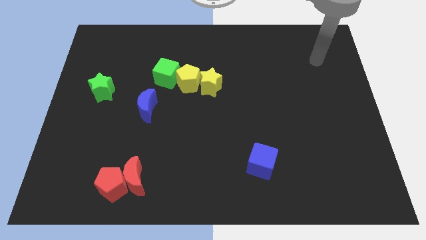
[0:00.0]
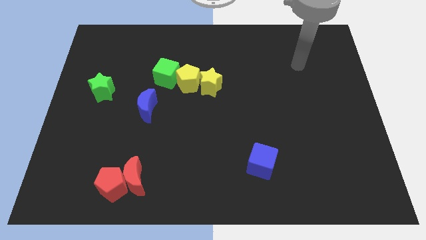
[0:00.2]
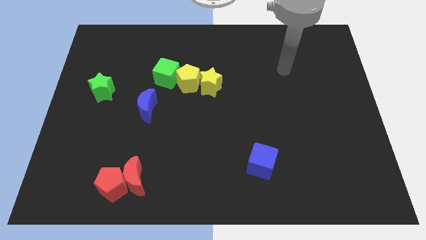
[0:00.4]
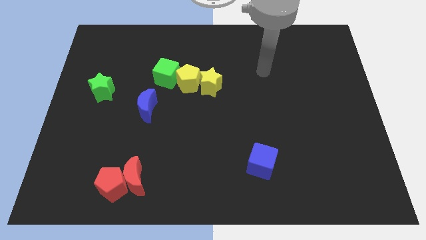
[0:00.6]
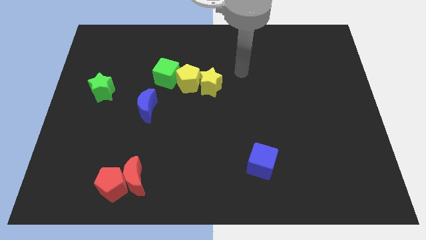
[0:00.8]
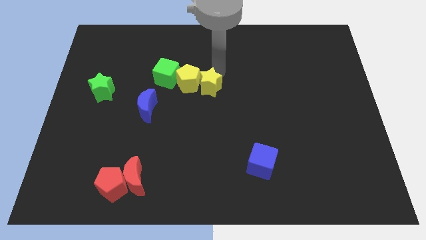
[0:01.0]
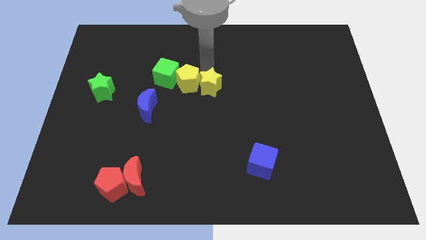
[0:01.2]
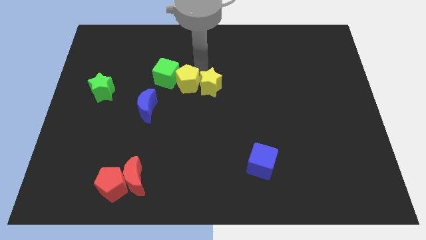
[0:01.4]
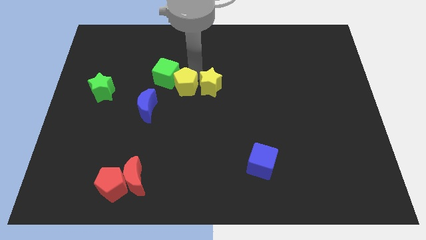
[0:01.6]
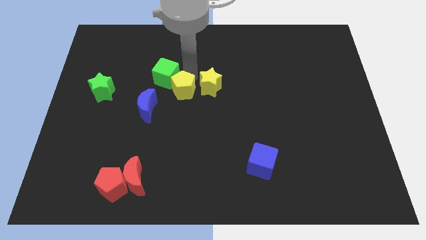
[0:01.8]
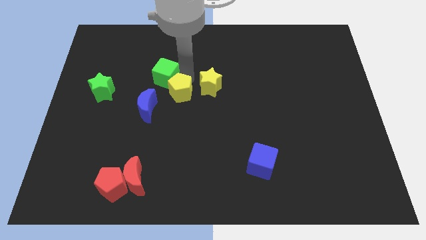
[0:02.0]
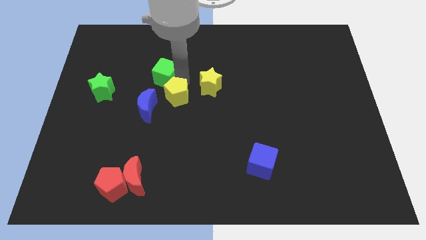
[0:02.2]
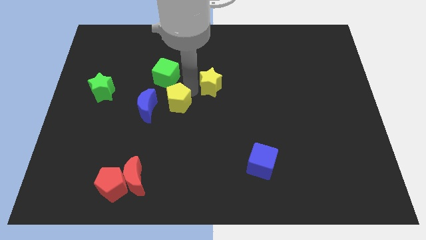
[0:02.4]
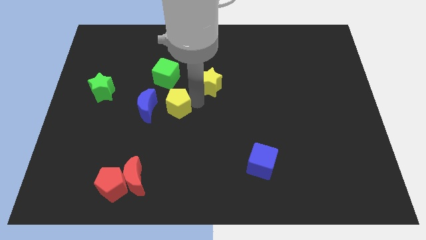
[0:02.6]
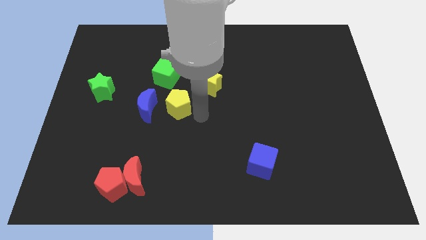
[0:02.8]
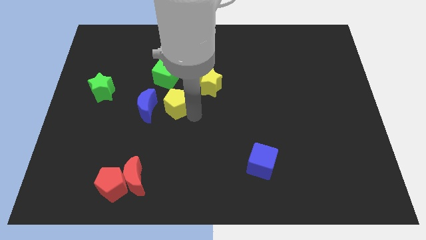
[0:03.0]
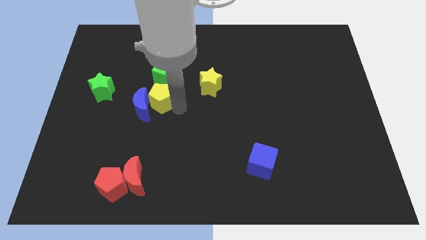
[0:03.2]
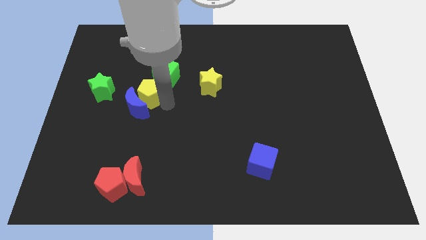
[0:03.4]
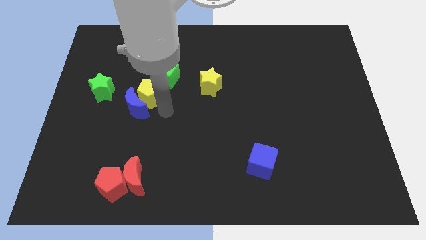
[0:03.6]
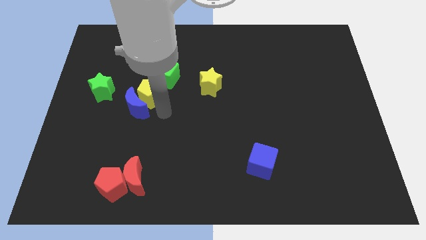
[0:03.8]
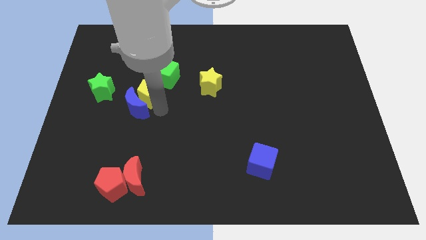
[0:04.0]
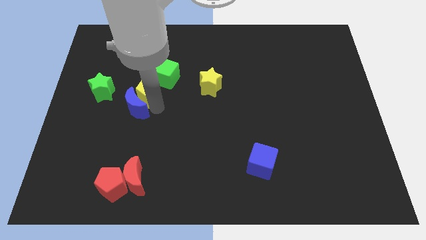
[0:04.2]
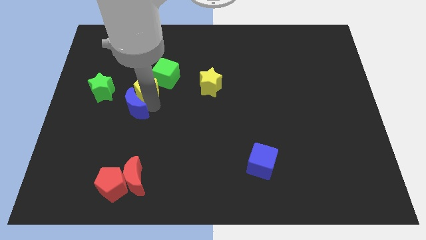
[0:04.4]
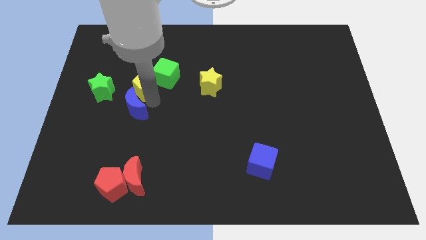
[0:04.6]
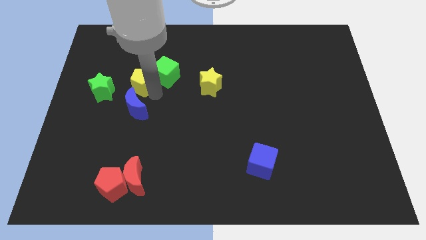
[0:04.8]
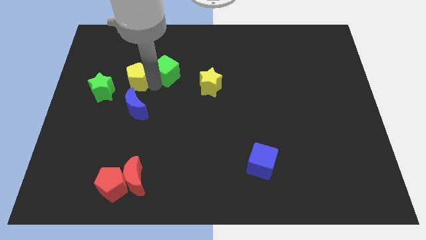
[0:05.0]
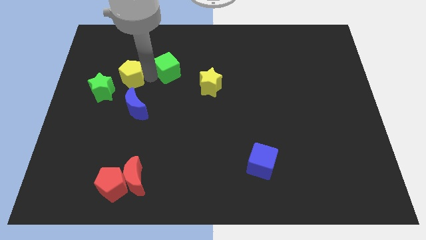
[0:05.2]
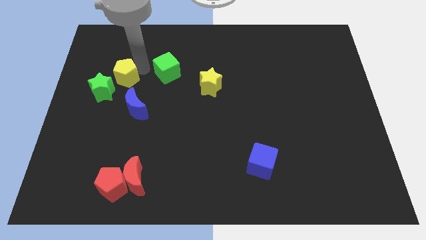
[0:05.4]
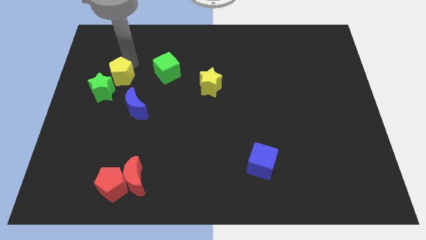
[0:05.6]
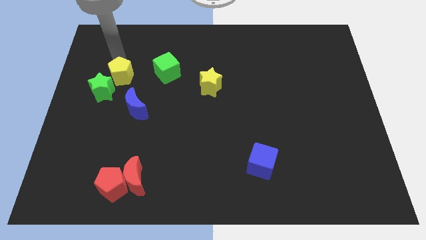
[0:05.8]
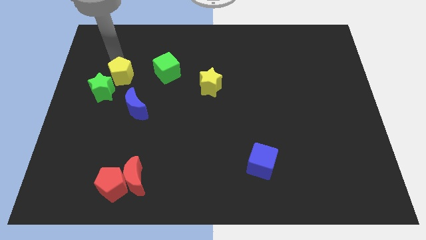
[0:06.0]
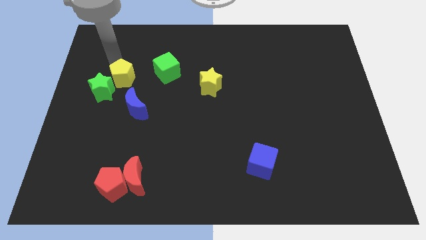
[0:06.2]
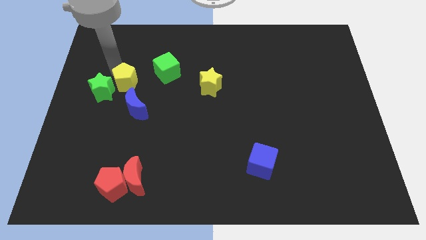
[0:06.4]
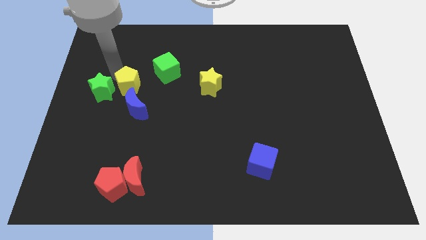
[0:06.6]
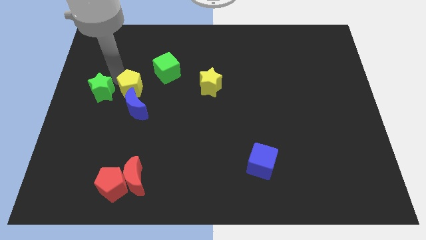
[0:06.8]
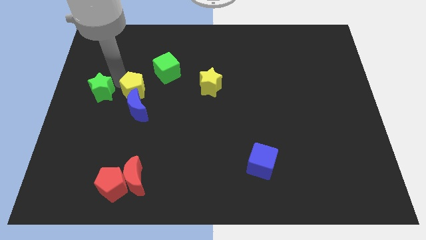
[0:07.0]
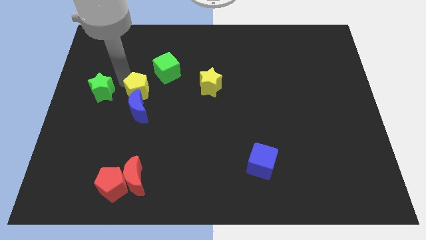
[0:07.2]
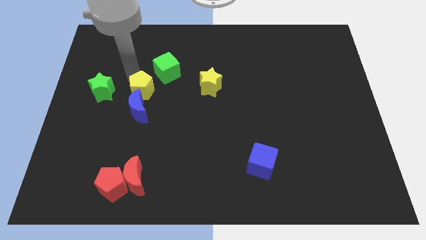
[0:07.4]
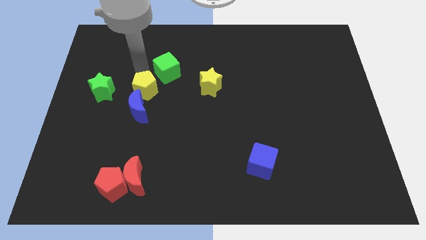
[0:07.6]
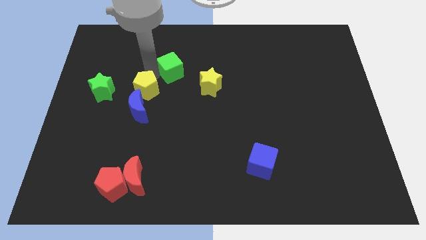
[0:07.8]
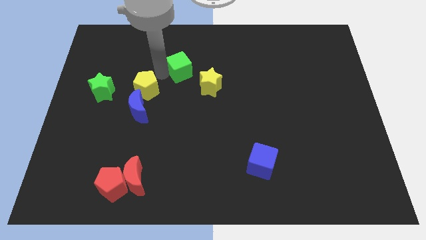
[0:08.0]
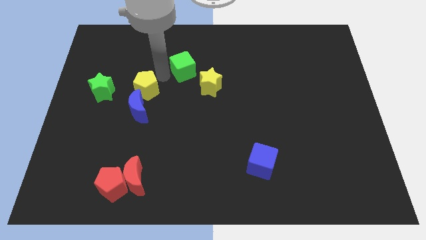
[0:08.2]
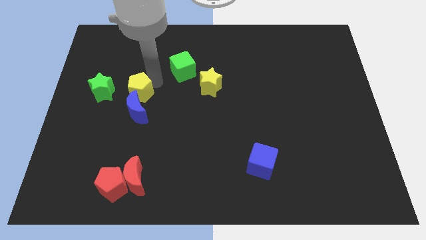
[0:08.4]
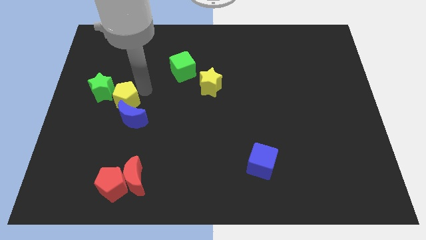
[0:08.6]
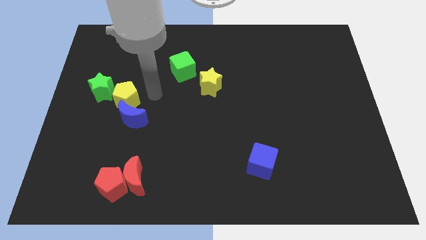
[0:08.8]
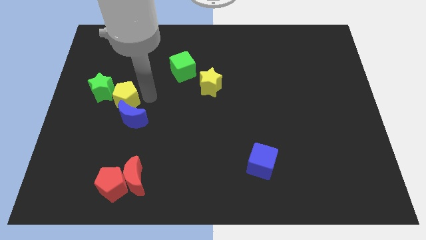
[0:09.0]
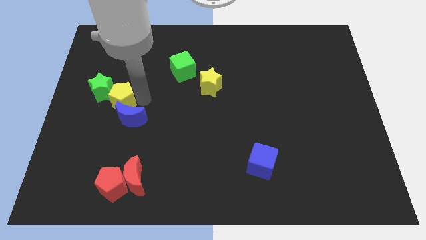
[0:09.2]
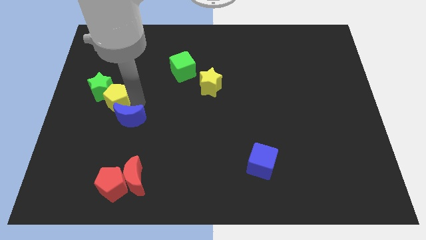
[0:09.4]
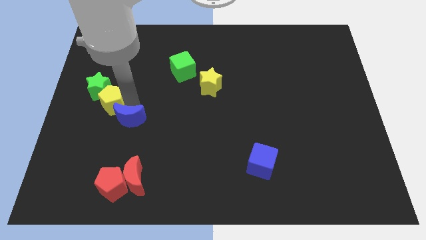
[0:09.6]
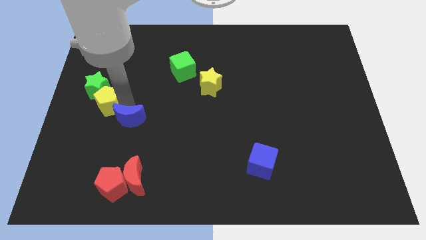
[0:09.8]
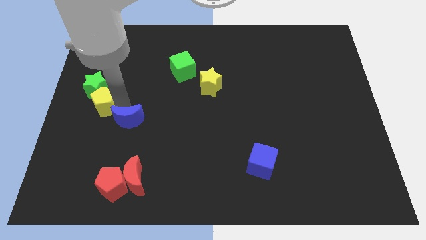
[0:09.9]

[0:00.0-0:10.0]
put the yellow pentagon to the left side

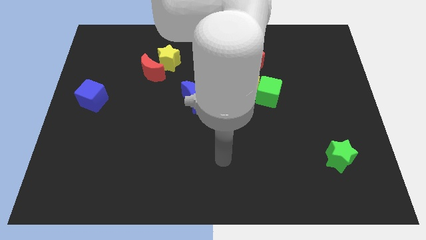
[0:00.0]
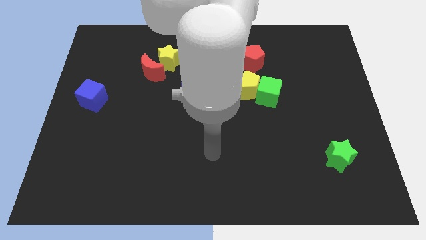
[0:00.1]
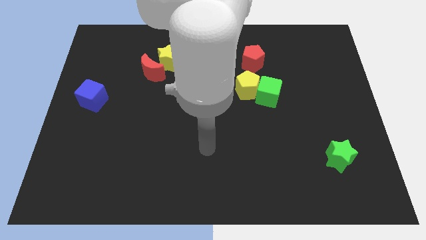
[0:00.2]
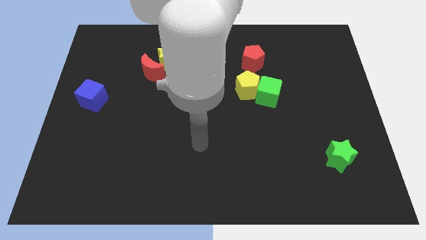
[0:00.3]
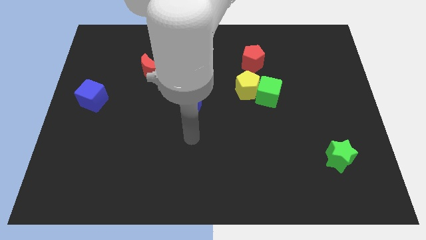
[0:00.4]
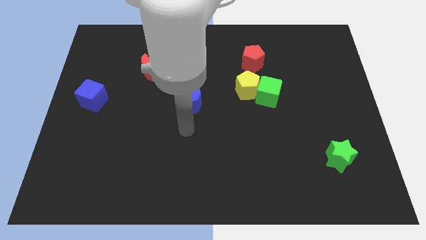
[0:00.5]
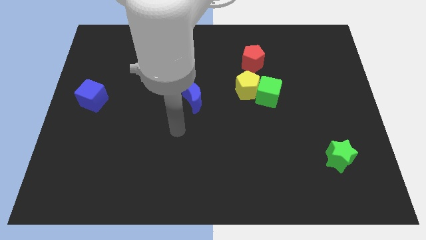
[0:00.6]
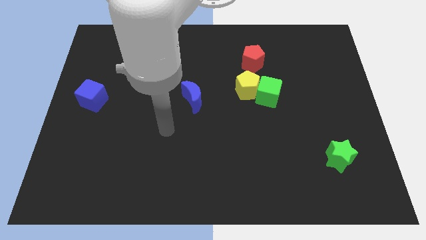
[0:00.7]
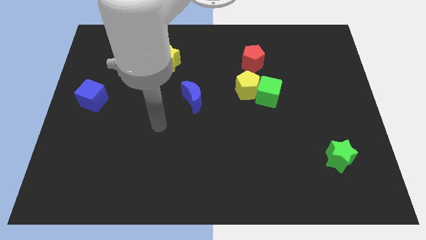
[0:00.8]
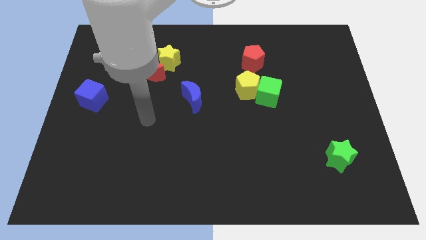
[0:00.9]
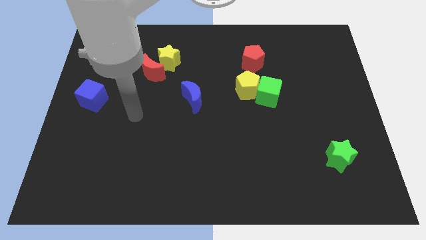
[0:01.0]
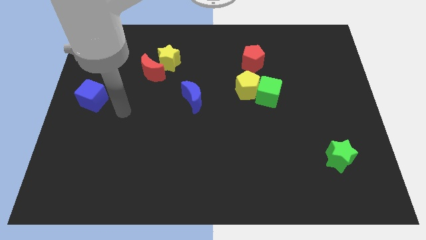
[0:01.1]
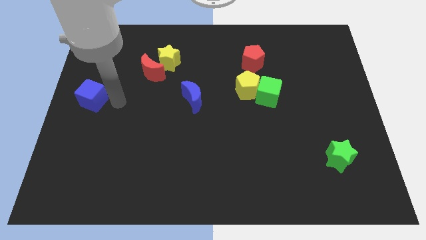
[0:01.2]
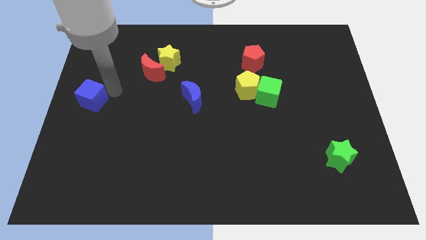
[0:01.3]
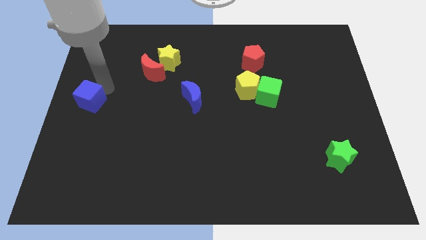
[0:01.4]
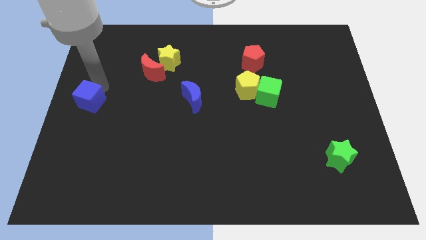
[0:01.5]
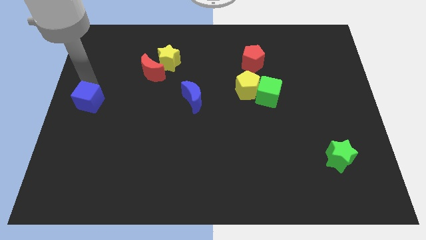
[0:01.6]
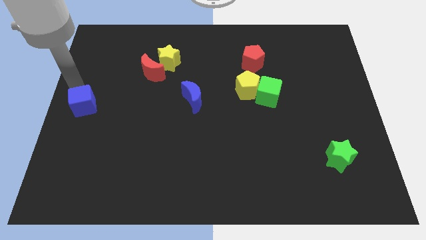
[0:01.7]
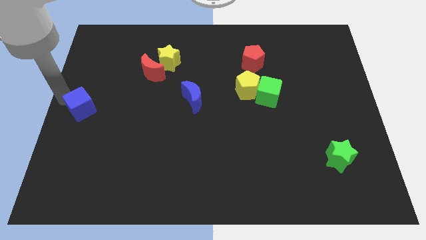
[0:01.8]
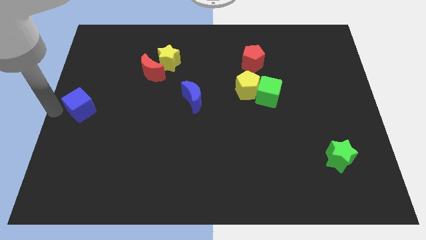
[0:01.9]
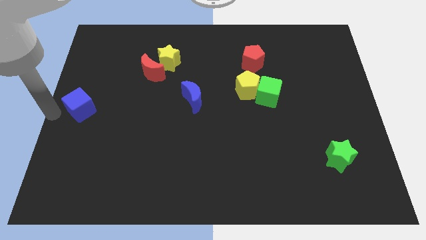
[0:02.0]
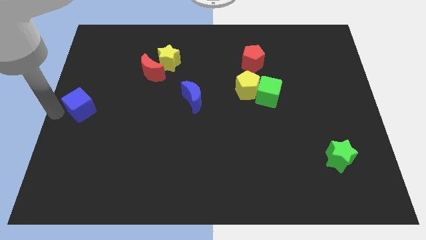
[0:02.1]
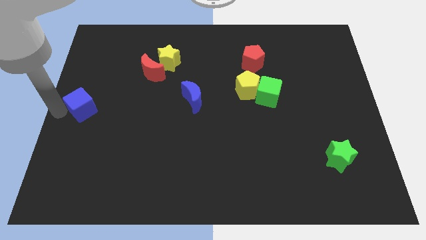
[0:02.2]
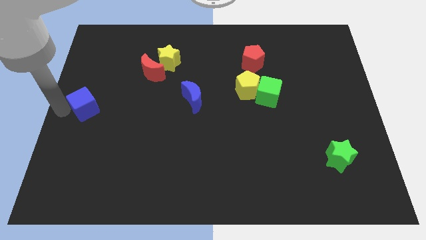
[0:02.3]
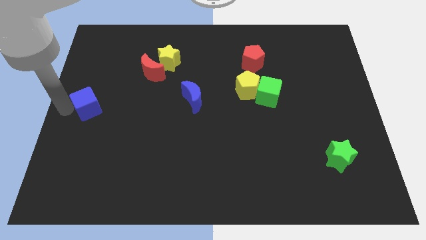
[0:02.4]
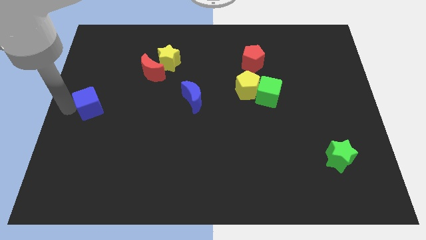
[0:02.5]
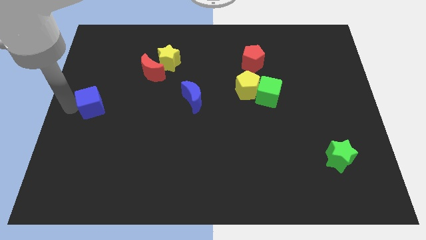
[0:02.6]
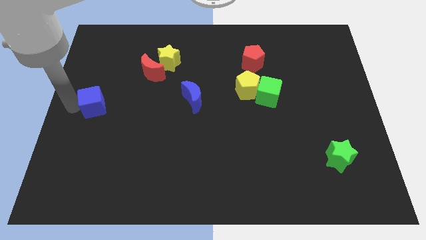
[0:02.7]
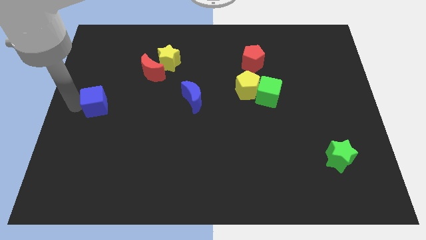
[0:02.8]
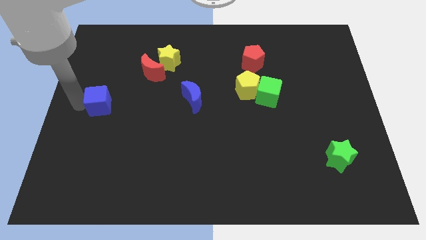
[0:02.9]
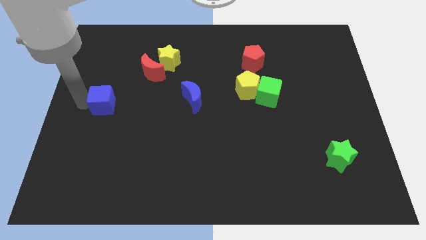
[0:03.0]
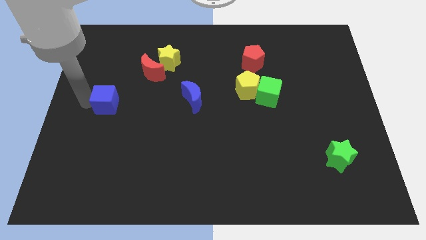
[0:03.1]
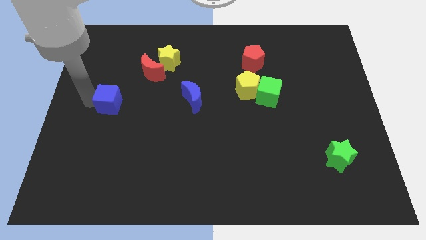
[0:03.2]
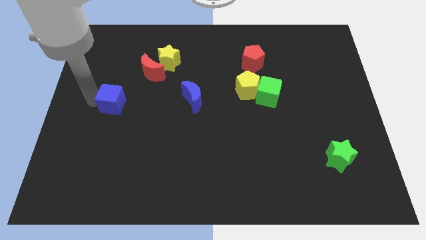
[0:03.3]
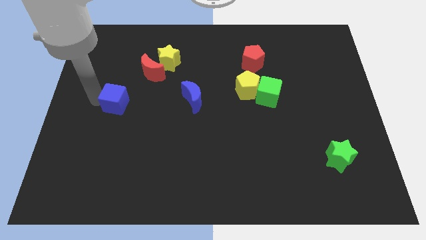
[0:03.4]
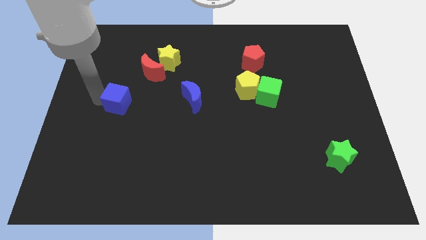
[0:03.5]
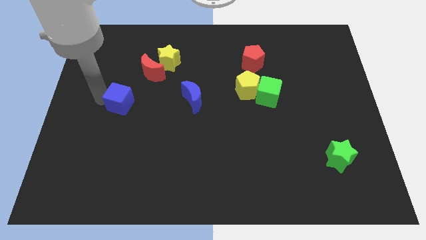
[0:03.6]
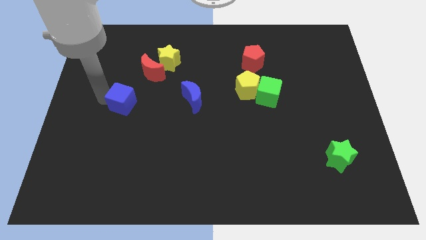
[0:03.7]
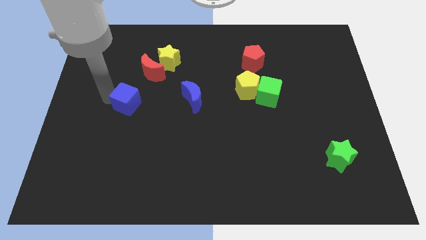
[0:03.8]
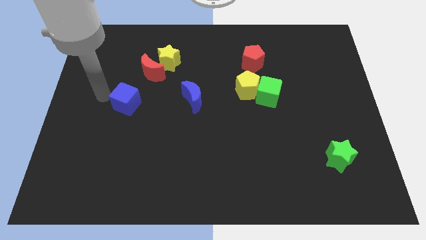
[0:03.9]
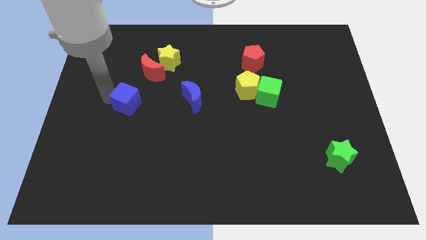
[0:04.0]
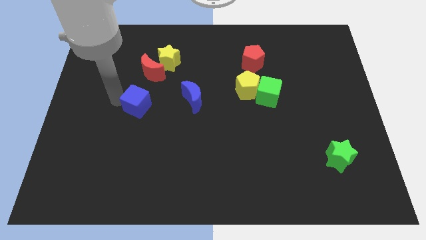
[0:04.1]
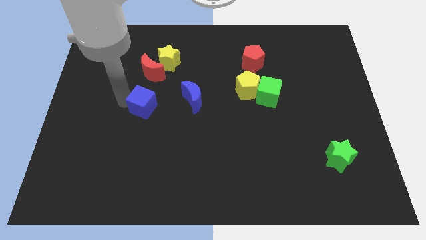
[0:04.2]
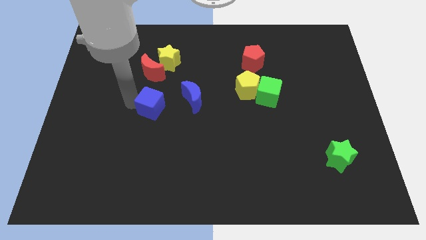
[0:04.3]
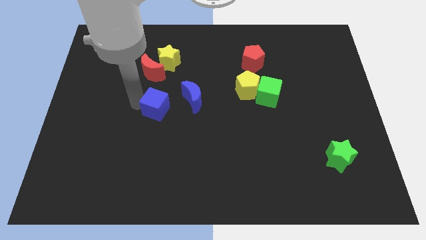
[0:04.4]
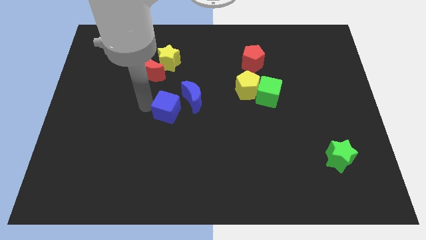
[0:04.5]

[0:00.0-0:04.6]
put the blue cube to the center of the board
